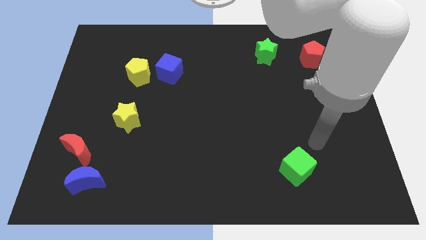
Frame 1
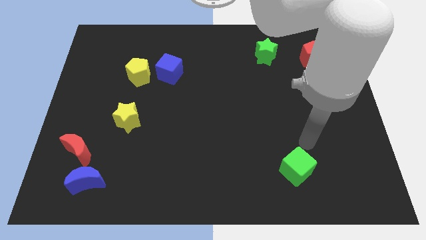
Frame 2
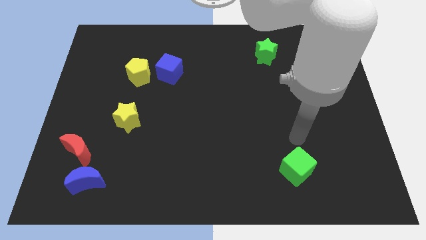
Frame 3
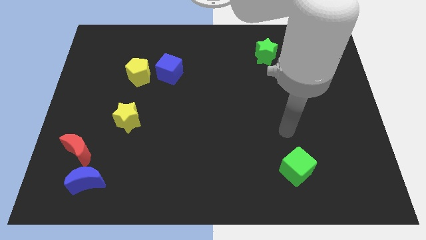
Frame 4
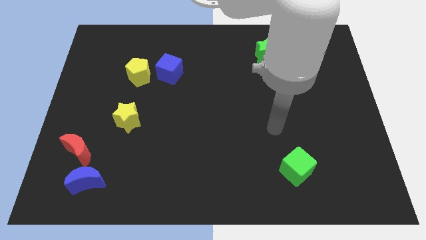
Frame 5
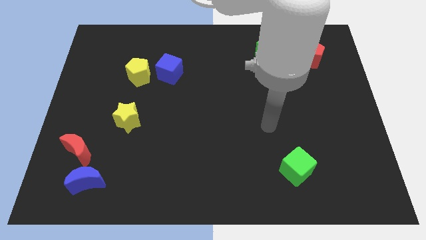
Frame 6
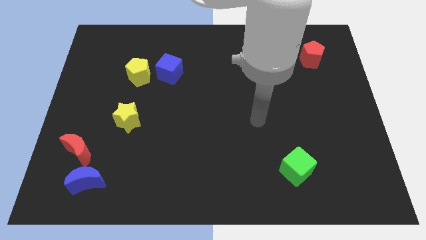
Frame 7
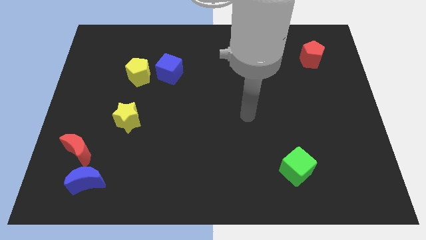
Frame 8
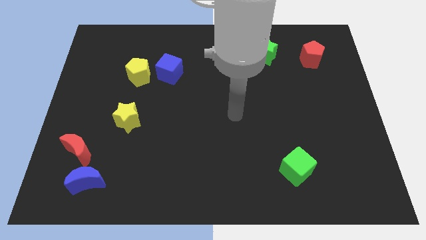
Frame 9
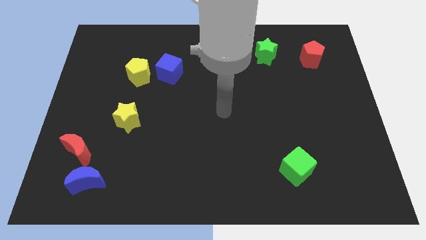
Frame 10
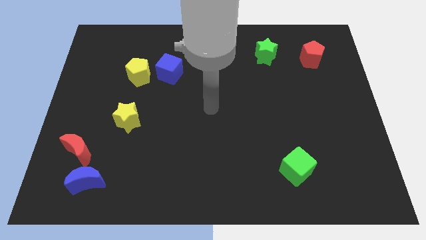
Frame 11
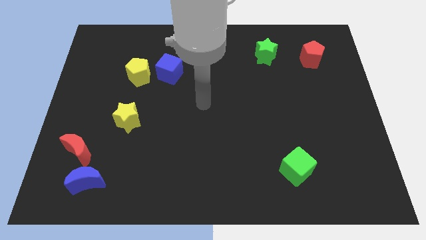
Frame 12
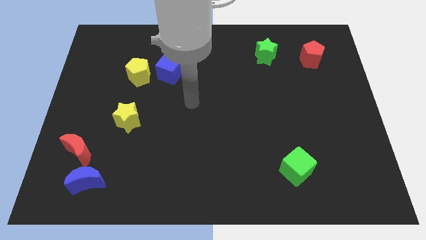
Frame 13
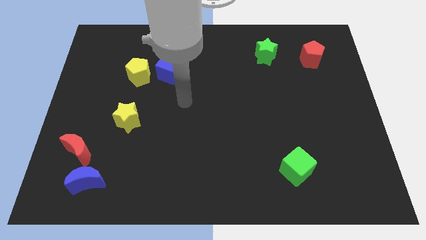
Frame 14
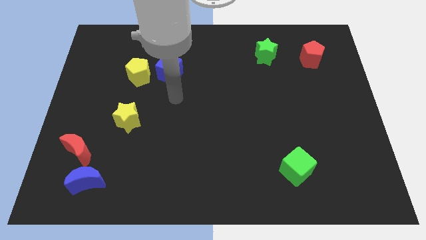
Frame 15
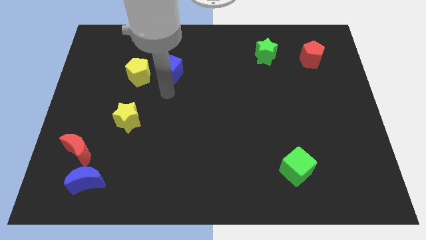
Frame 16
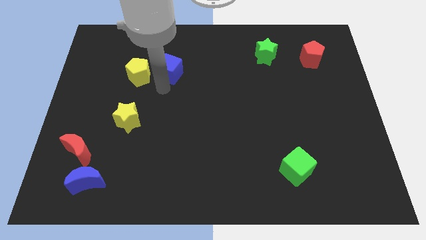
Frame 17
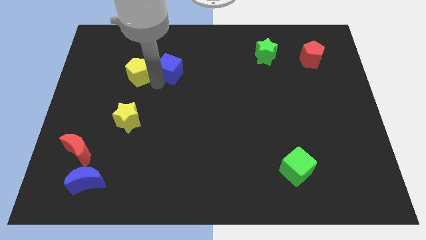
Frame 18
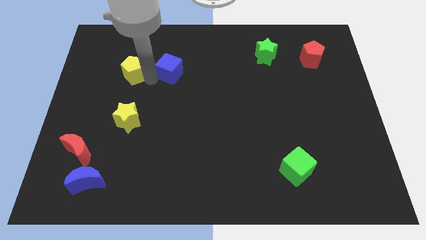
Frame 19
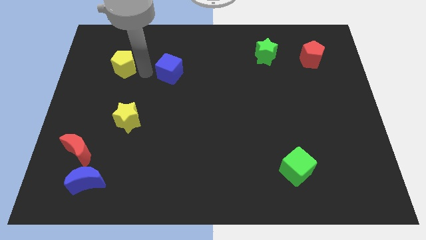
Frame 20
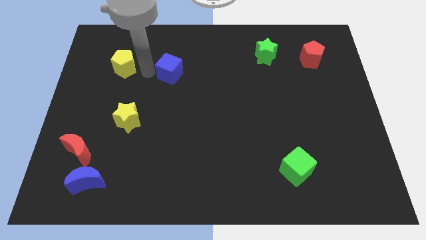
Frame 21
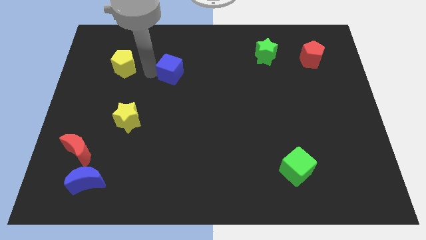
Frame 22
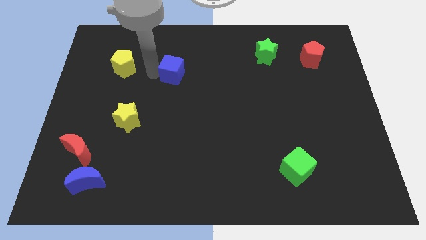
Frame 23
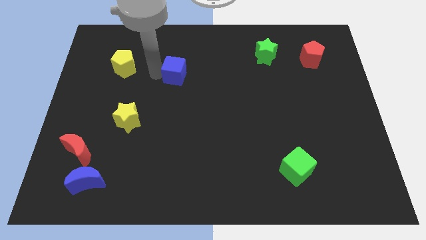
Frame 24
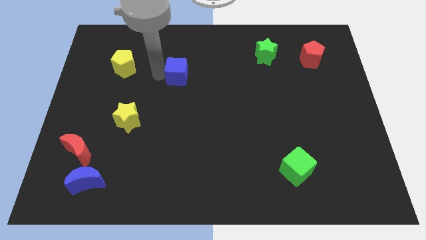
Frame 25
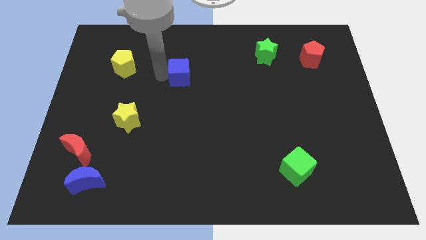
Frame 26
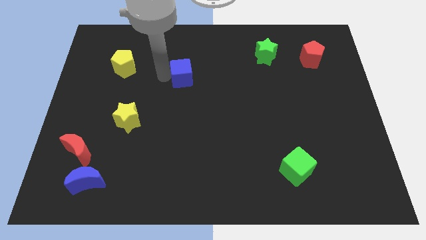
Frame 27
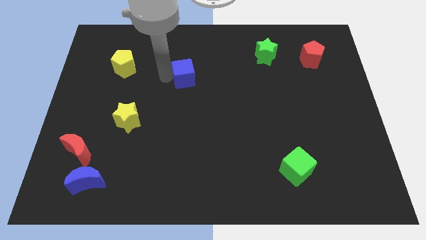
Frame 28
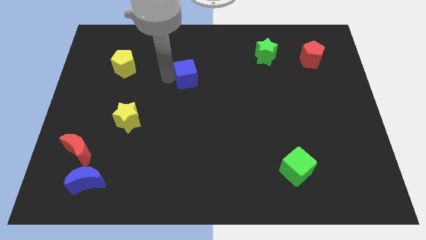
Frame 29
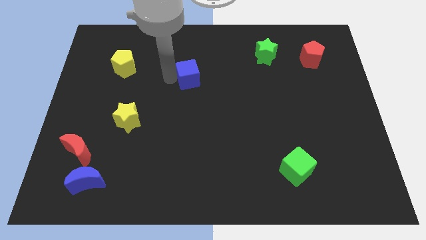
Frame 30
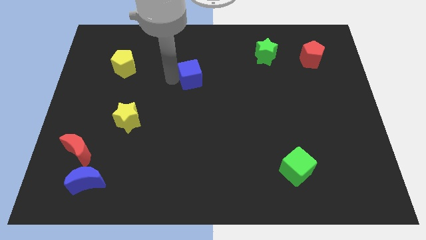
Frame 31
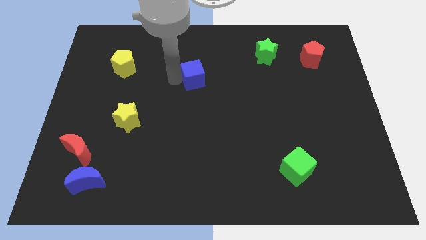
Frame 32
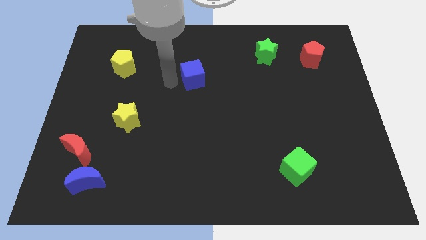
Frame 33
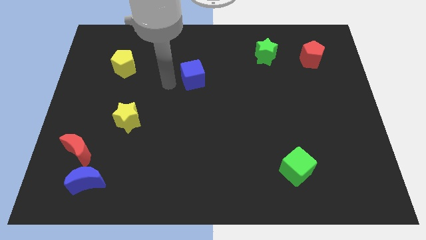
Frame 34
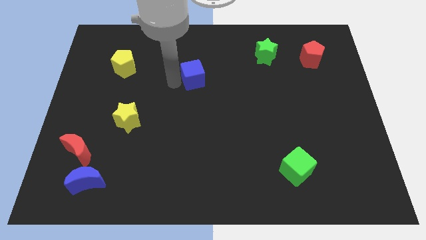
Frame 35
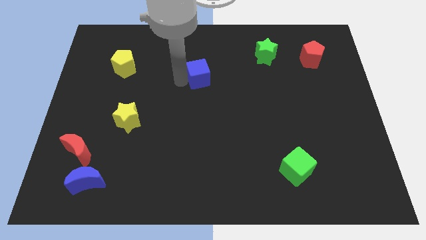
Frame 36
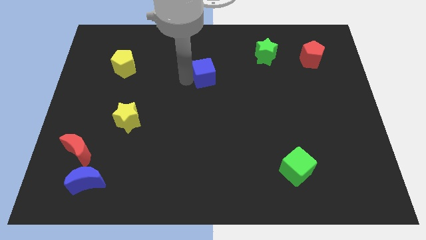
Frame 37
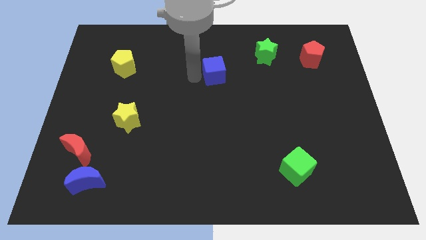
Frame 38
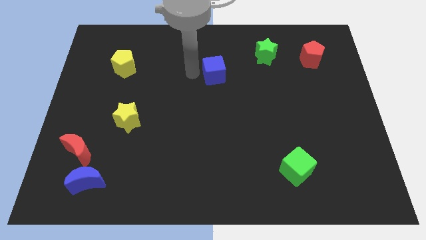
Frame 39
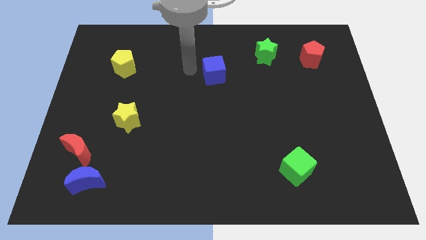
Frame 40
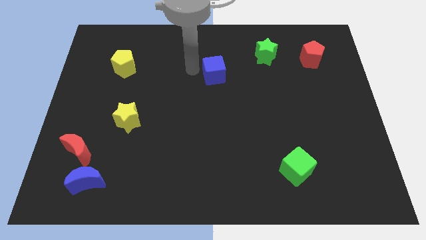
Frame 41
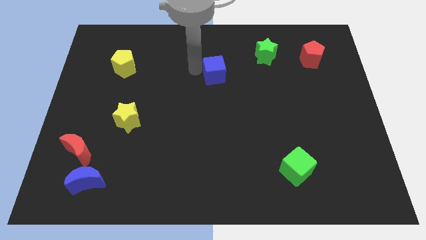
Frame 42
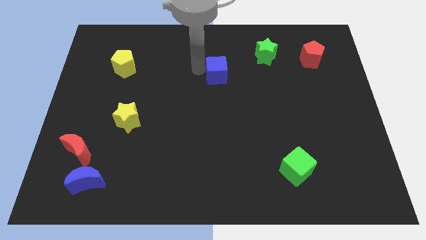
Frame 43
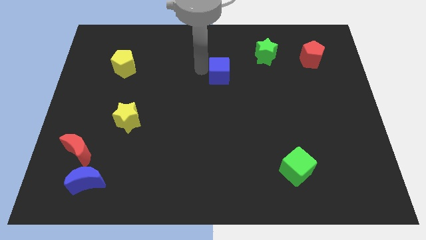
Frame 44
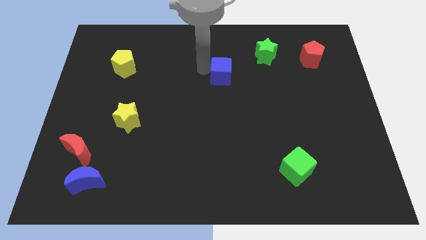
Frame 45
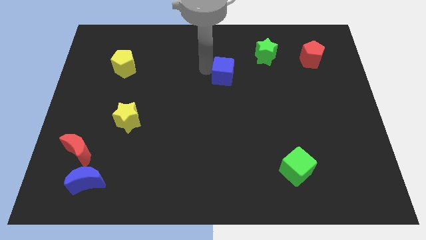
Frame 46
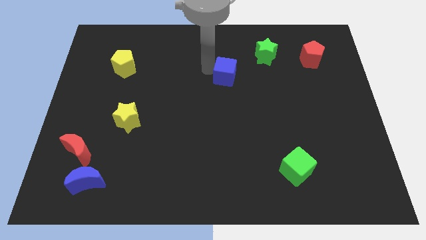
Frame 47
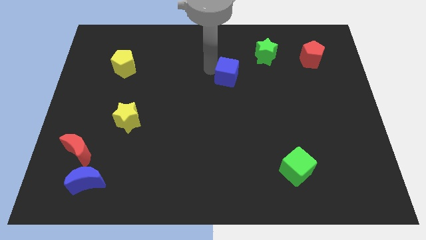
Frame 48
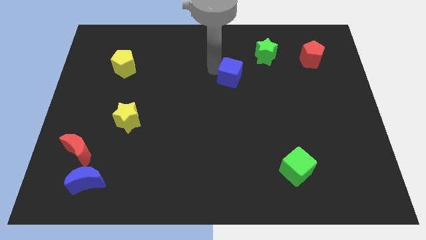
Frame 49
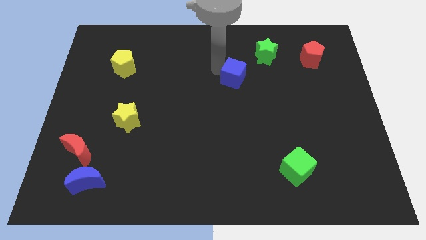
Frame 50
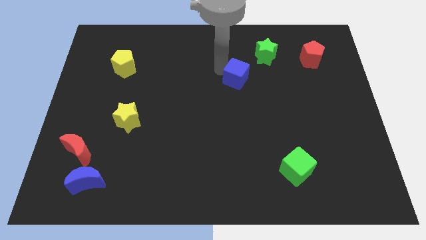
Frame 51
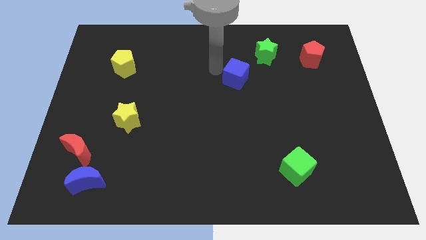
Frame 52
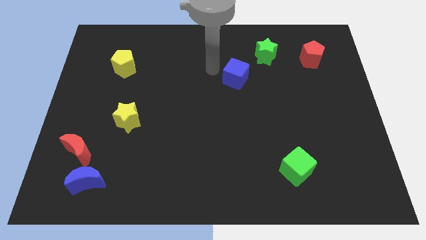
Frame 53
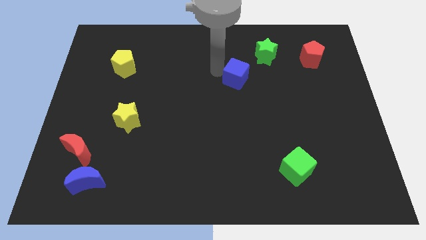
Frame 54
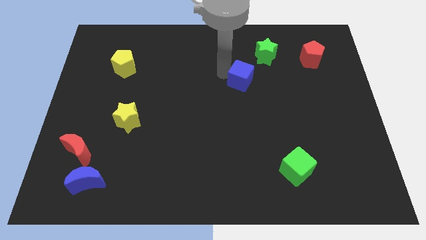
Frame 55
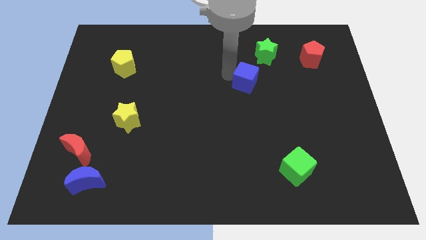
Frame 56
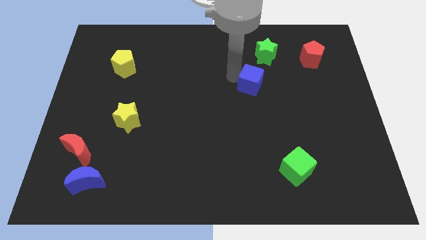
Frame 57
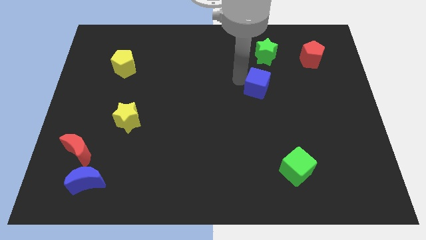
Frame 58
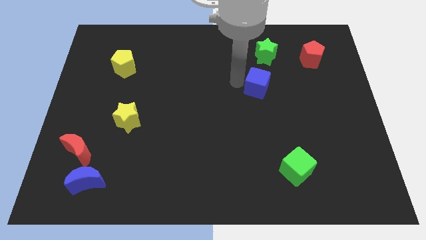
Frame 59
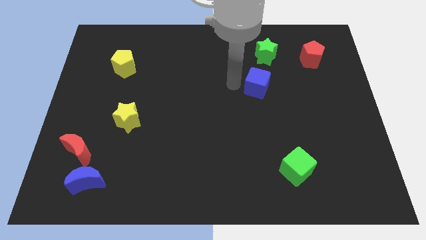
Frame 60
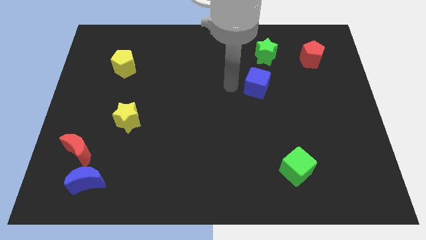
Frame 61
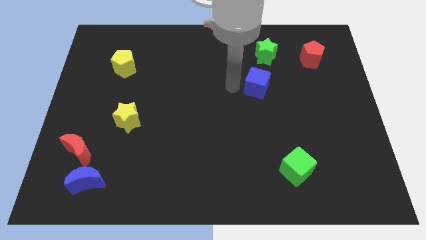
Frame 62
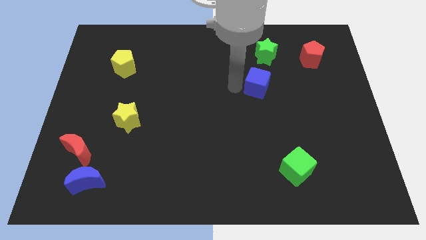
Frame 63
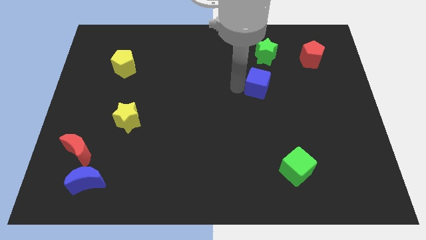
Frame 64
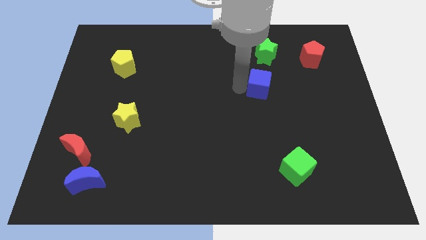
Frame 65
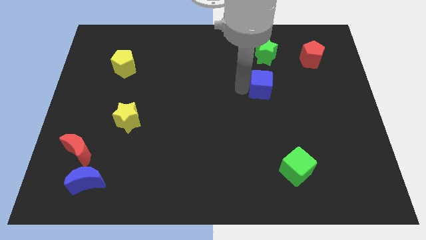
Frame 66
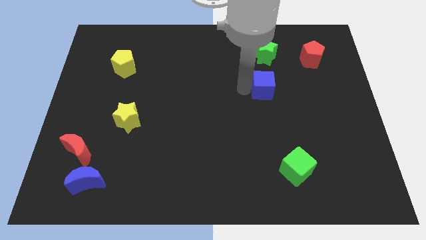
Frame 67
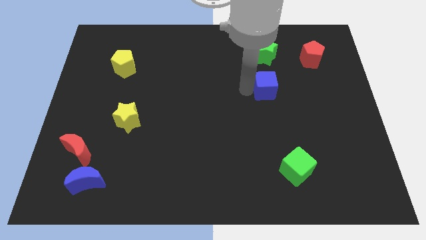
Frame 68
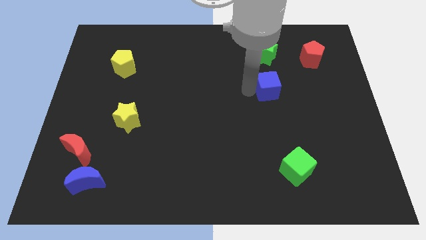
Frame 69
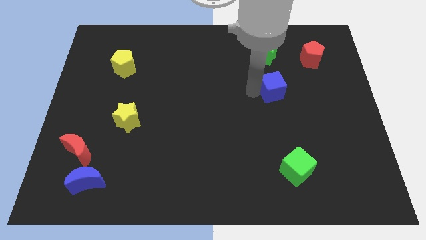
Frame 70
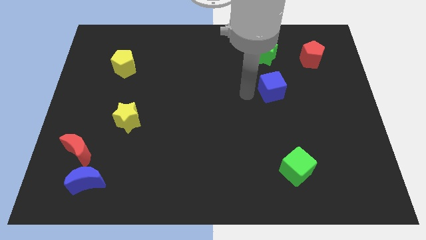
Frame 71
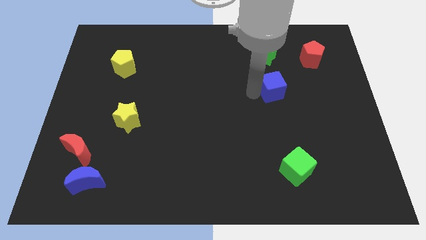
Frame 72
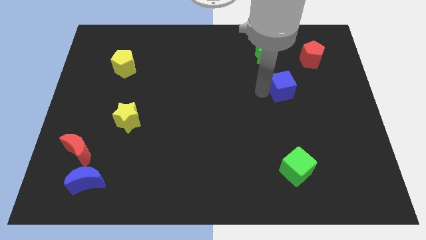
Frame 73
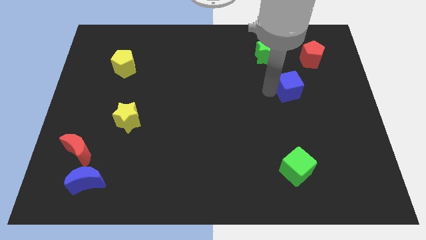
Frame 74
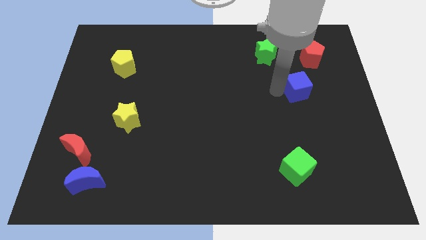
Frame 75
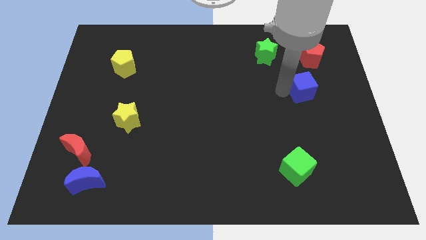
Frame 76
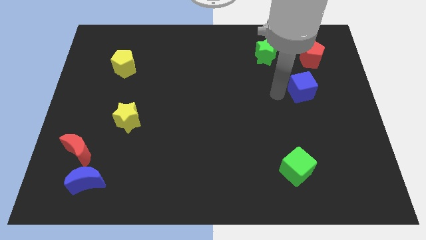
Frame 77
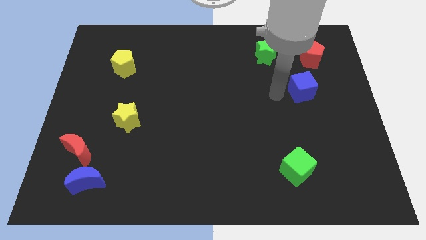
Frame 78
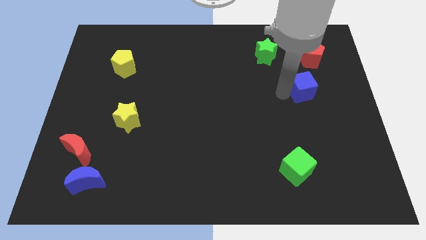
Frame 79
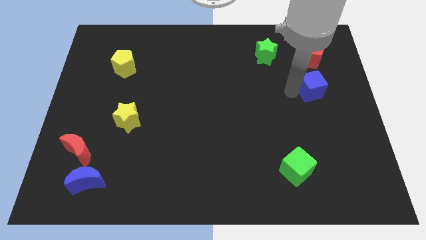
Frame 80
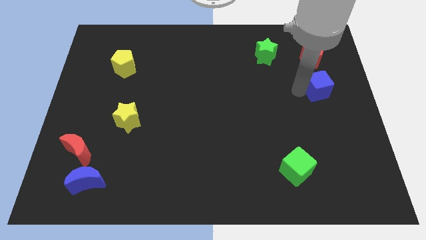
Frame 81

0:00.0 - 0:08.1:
slide the blue cube to the right side
